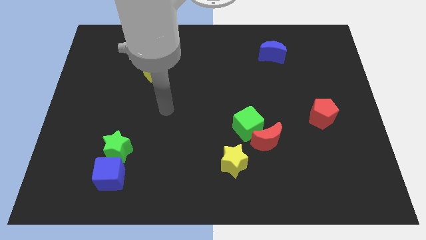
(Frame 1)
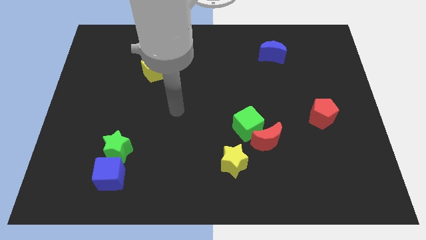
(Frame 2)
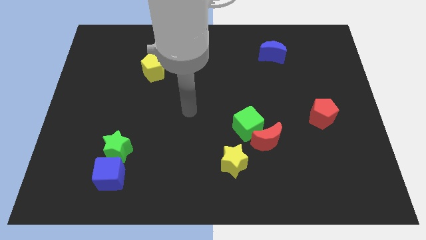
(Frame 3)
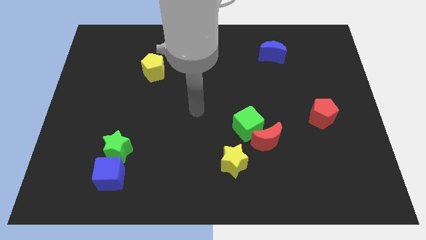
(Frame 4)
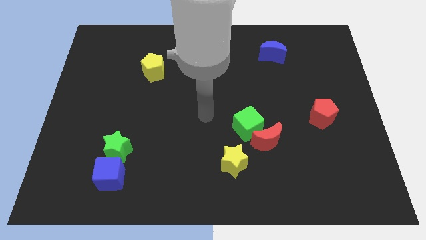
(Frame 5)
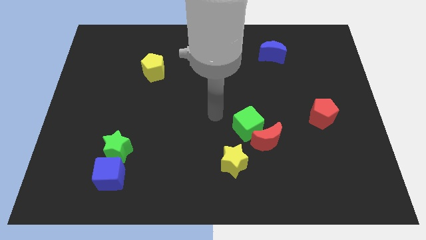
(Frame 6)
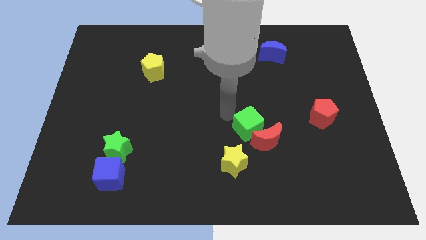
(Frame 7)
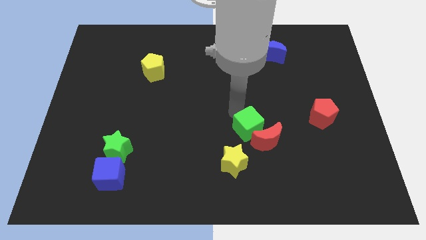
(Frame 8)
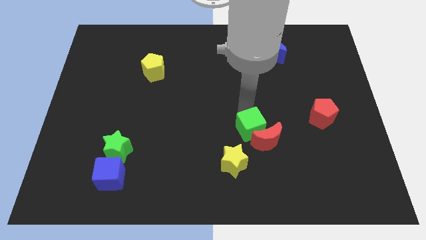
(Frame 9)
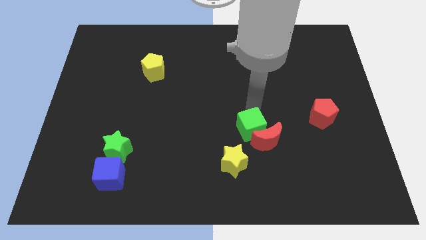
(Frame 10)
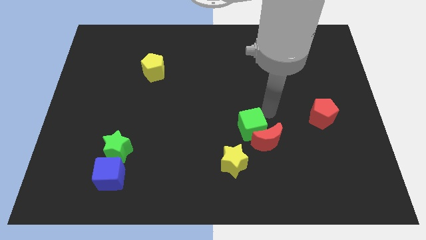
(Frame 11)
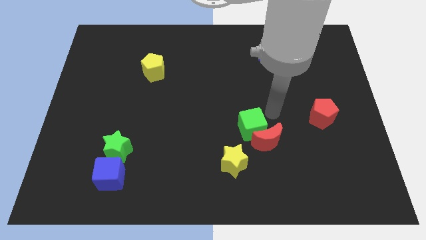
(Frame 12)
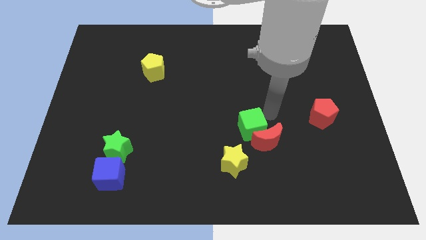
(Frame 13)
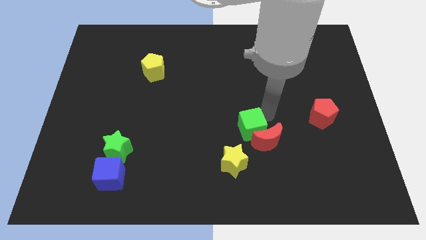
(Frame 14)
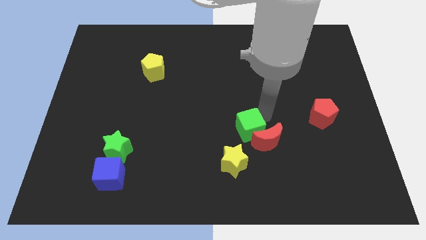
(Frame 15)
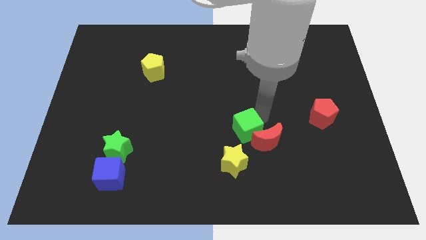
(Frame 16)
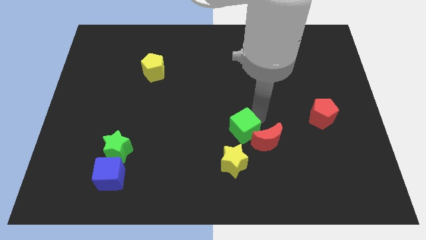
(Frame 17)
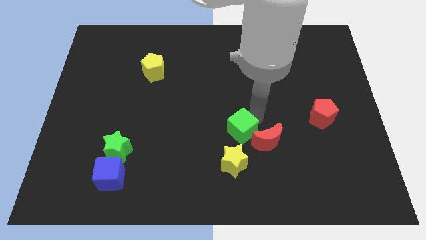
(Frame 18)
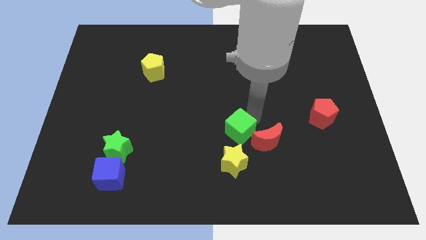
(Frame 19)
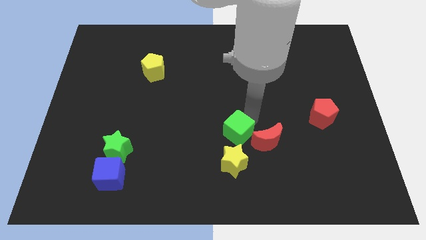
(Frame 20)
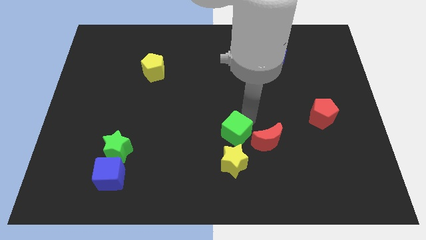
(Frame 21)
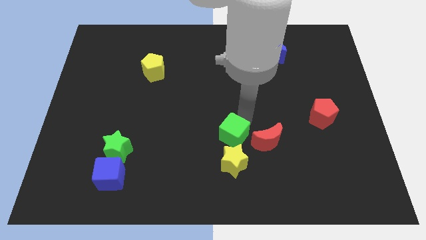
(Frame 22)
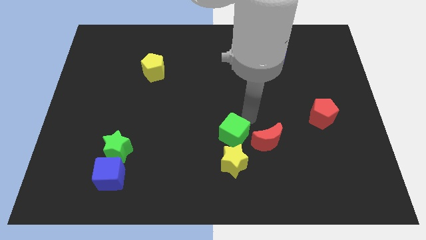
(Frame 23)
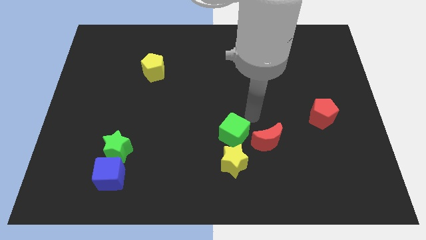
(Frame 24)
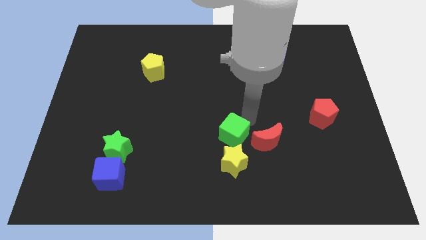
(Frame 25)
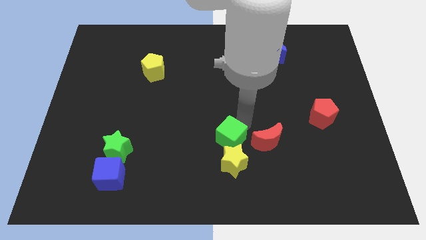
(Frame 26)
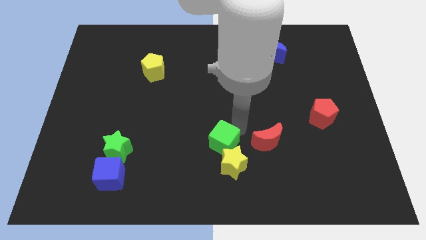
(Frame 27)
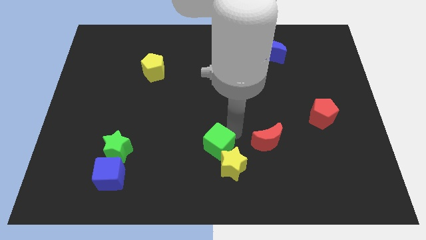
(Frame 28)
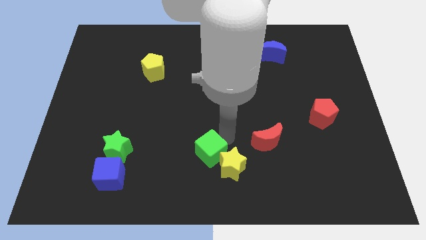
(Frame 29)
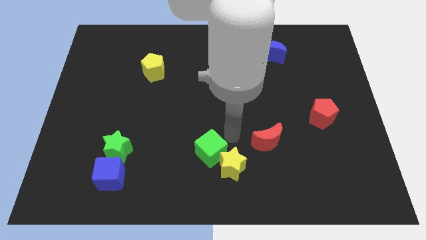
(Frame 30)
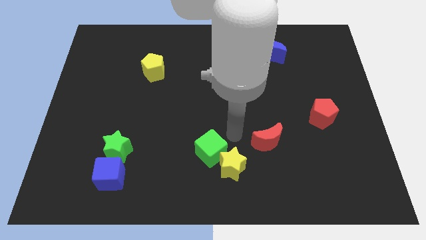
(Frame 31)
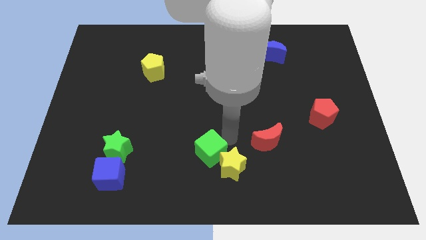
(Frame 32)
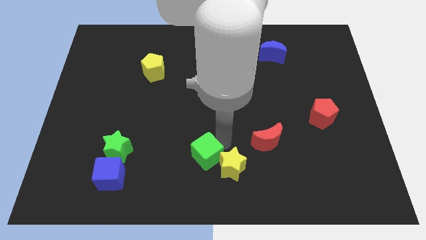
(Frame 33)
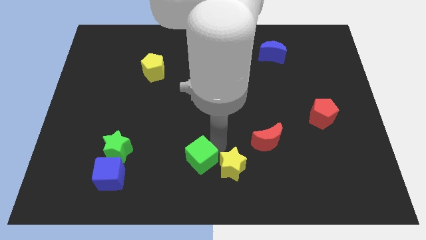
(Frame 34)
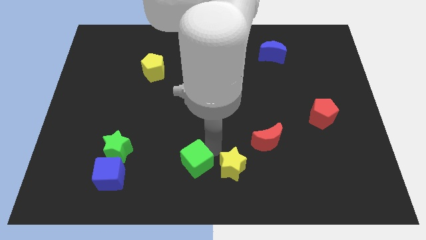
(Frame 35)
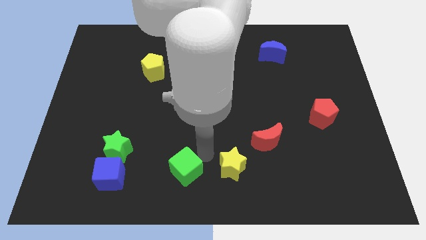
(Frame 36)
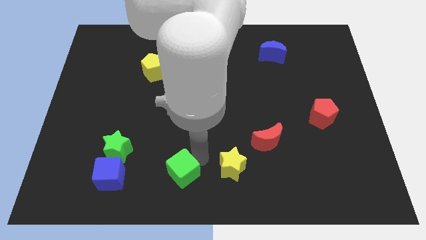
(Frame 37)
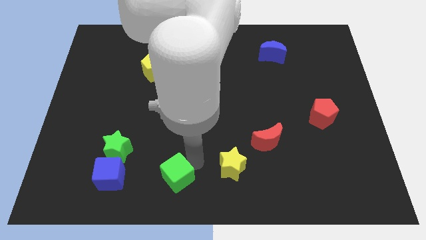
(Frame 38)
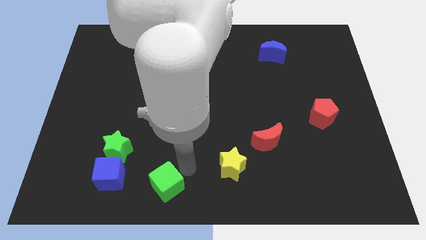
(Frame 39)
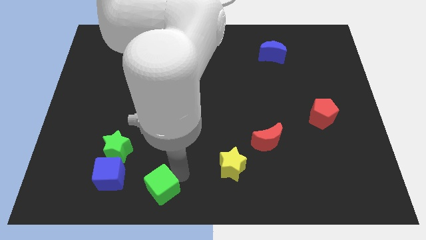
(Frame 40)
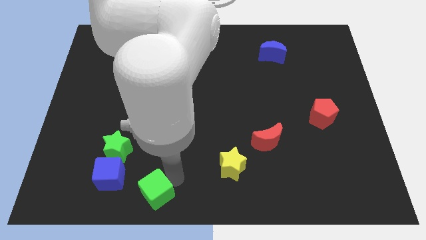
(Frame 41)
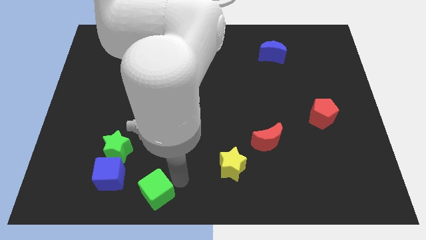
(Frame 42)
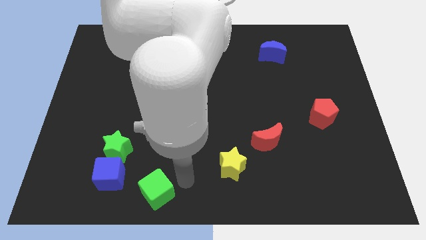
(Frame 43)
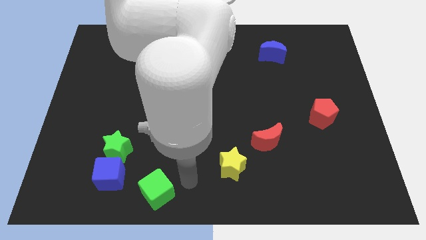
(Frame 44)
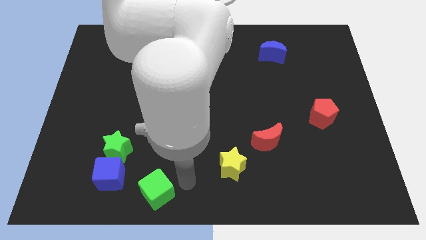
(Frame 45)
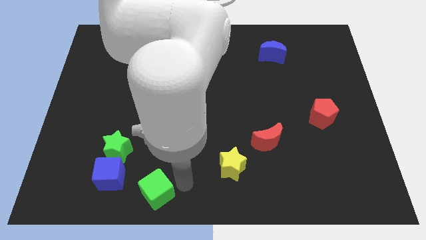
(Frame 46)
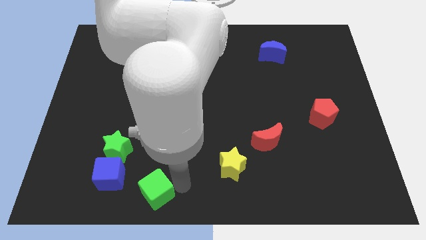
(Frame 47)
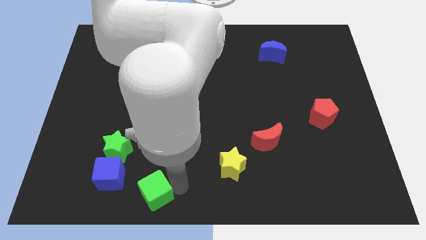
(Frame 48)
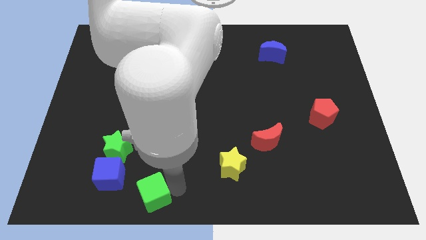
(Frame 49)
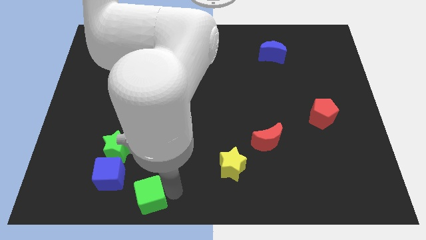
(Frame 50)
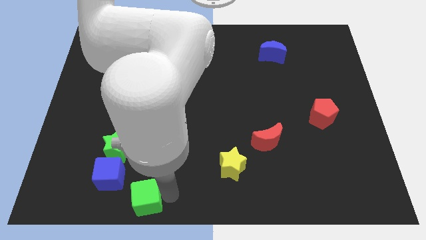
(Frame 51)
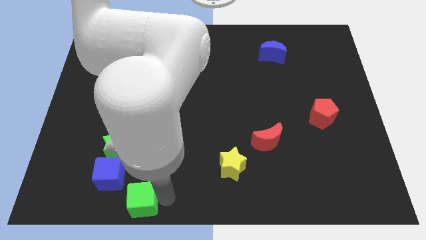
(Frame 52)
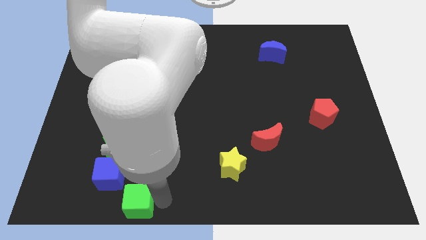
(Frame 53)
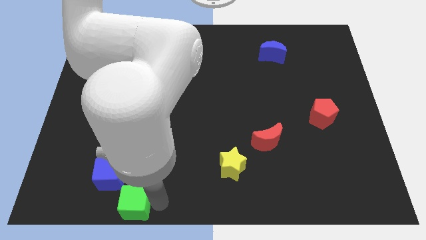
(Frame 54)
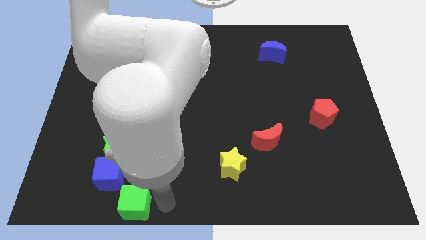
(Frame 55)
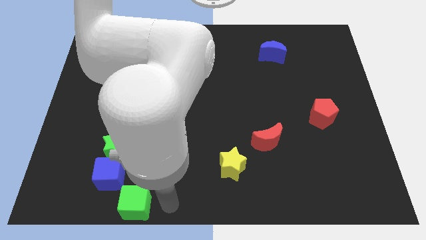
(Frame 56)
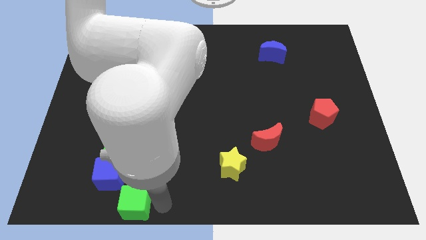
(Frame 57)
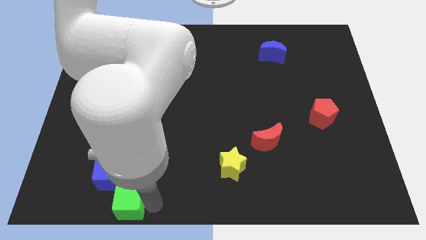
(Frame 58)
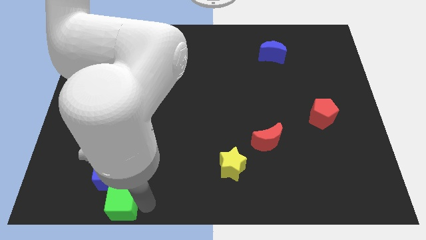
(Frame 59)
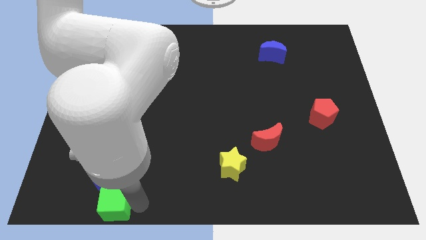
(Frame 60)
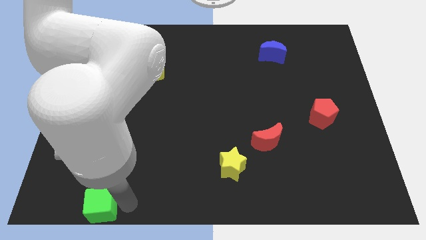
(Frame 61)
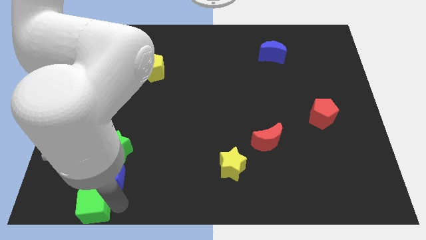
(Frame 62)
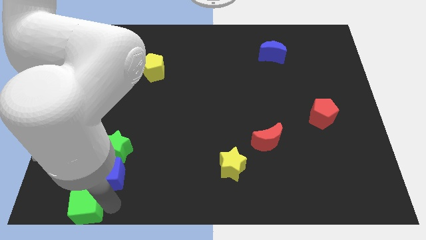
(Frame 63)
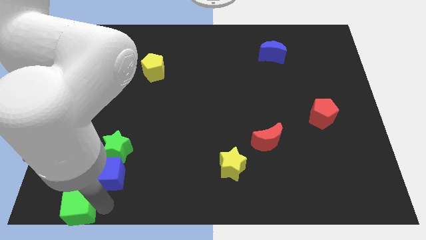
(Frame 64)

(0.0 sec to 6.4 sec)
push the green cube to the bottom left corner
